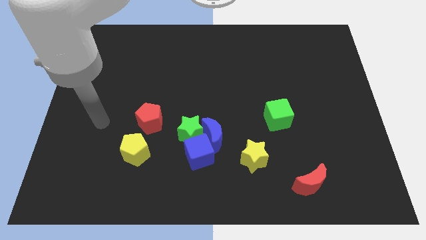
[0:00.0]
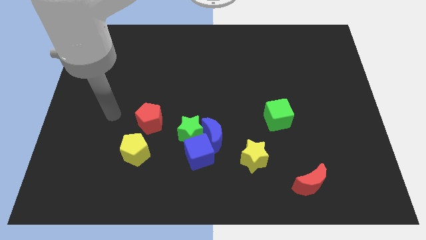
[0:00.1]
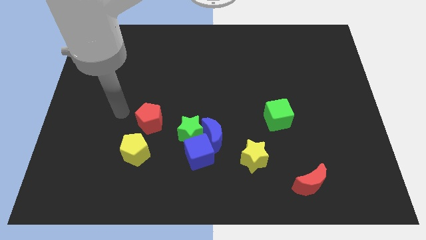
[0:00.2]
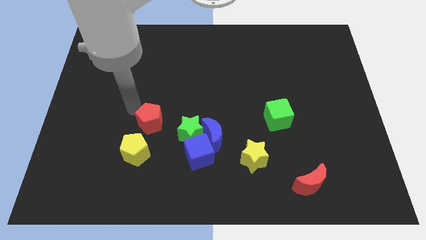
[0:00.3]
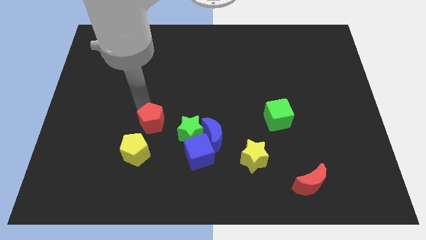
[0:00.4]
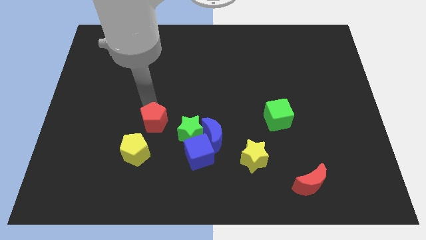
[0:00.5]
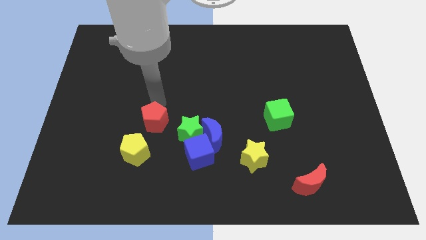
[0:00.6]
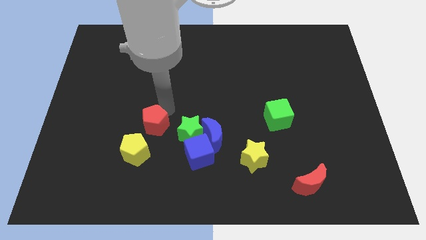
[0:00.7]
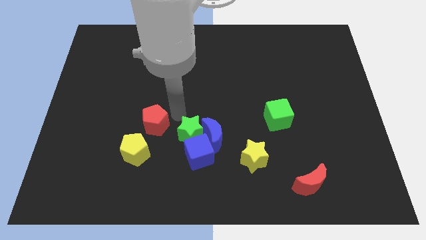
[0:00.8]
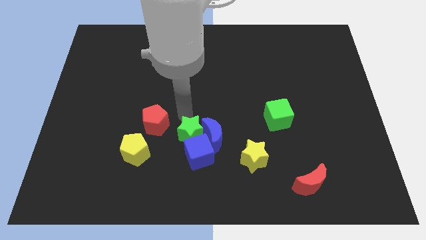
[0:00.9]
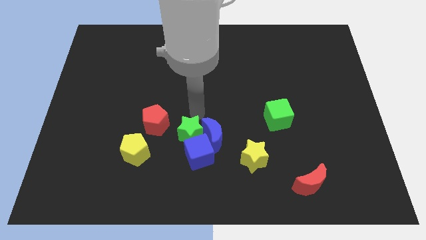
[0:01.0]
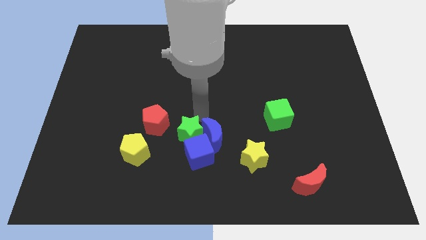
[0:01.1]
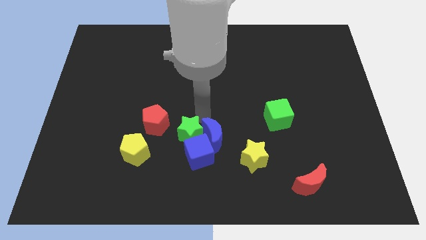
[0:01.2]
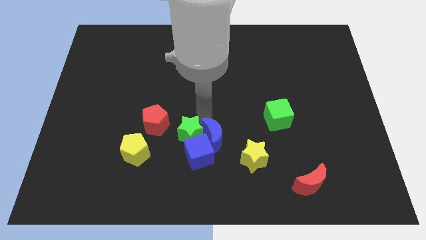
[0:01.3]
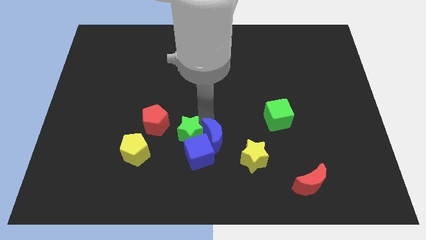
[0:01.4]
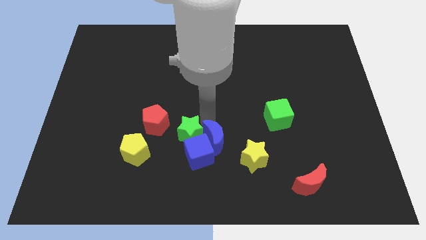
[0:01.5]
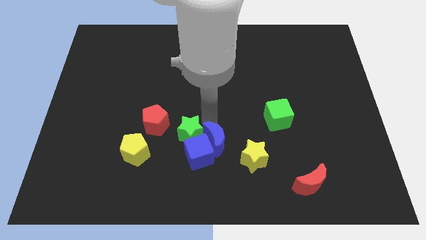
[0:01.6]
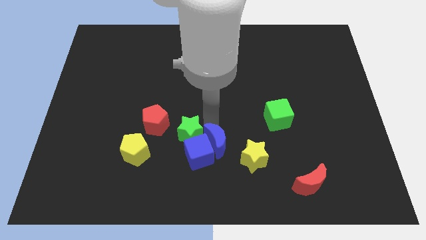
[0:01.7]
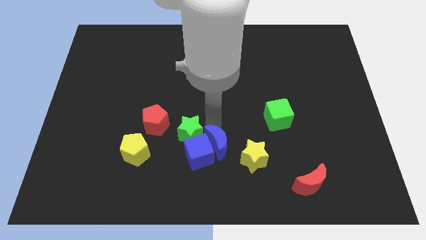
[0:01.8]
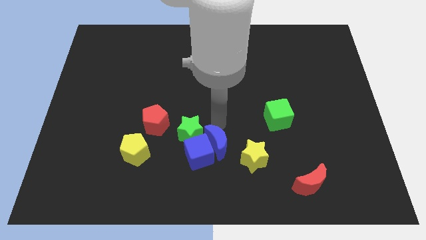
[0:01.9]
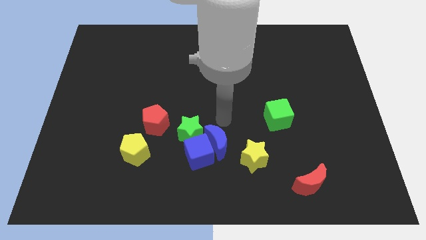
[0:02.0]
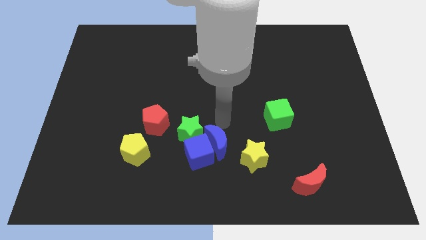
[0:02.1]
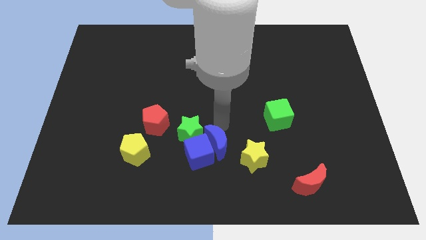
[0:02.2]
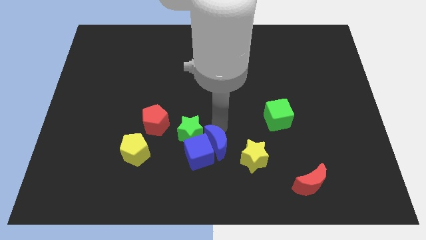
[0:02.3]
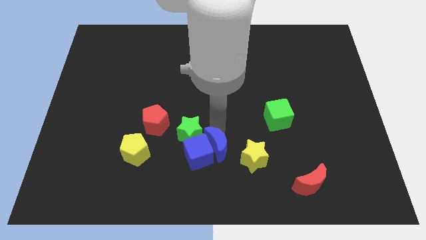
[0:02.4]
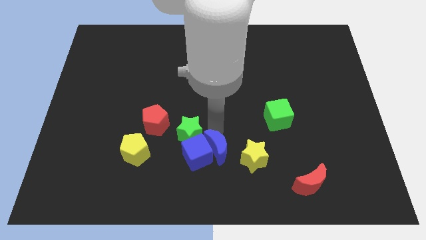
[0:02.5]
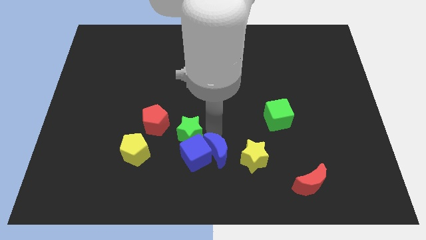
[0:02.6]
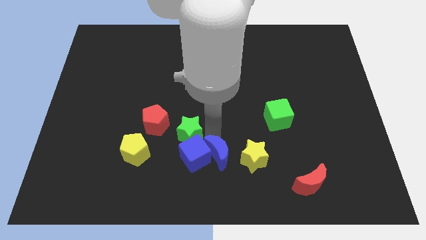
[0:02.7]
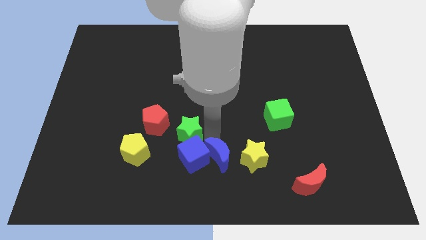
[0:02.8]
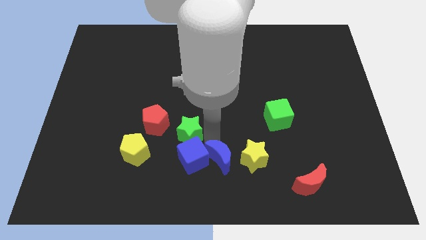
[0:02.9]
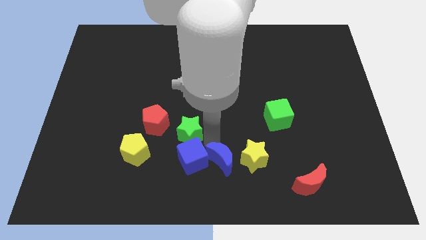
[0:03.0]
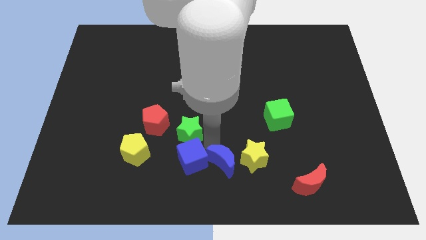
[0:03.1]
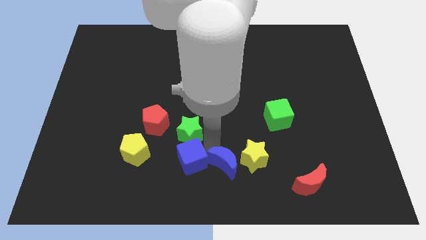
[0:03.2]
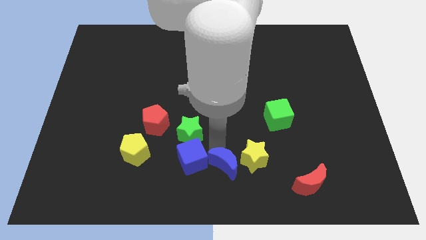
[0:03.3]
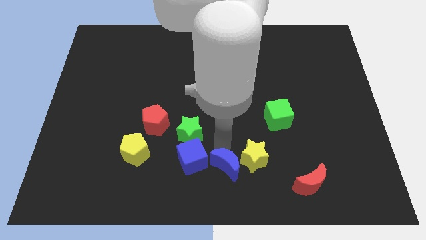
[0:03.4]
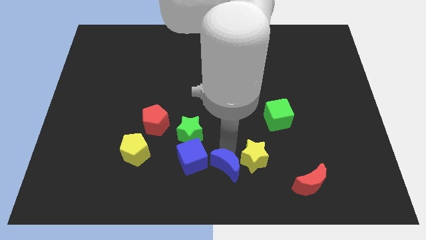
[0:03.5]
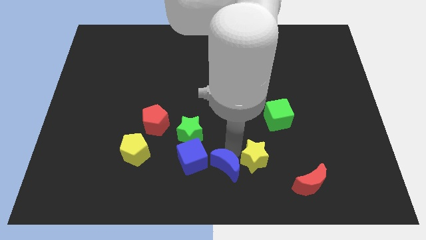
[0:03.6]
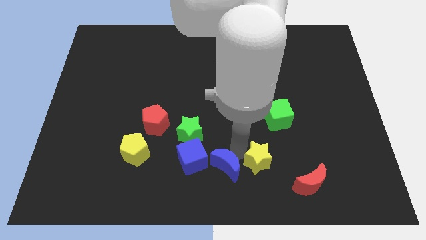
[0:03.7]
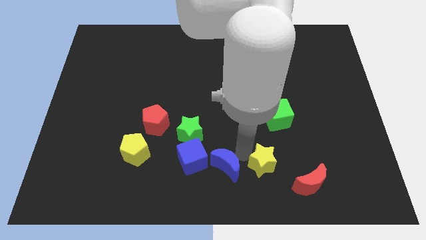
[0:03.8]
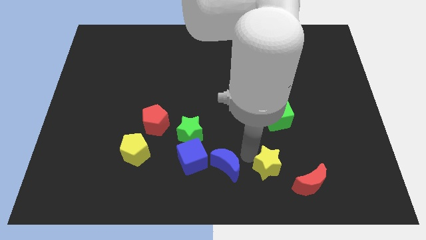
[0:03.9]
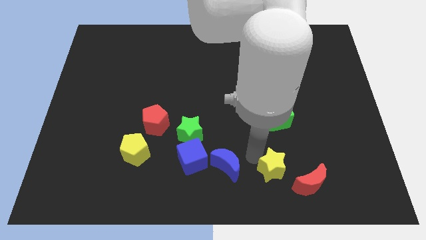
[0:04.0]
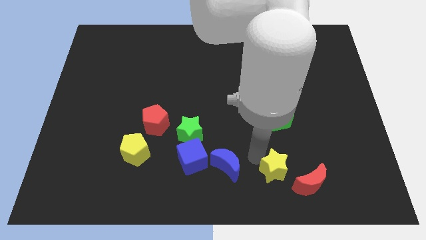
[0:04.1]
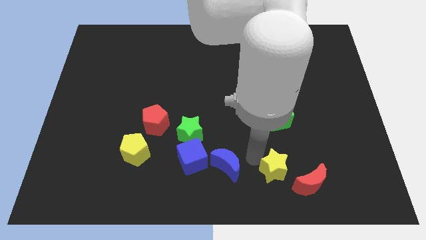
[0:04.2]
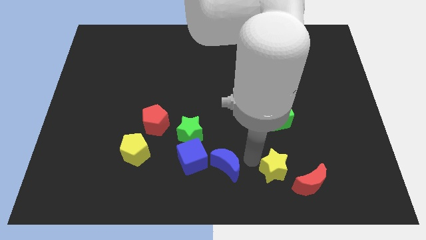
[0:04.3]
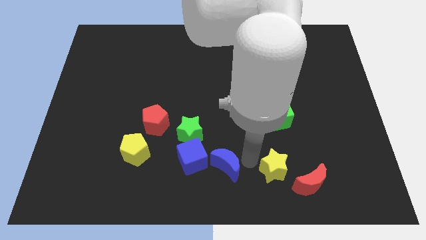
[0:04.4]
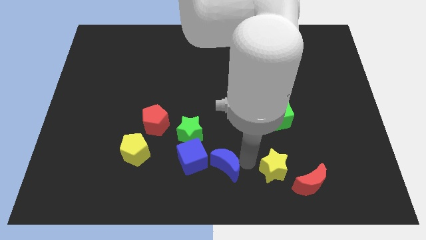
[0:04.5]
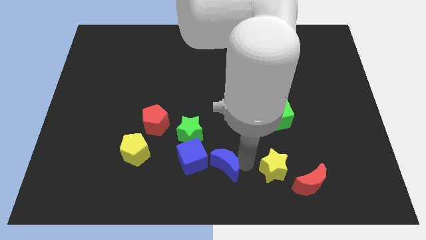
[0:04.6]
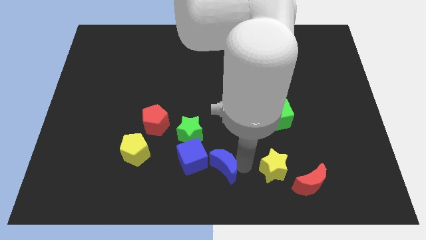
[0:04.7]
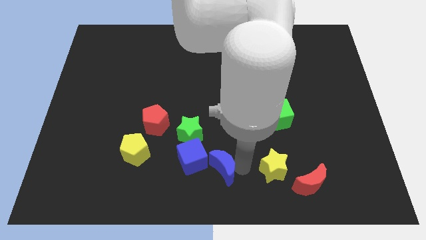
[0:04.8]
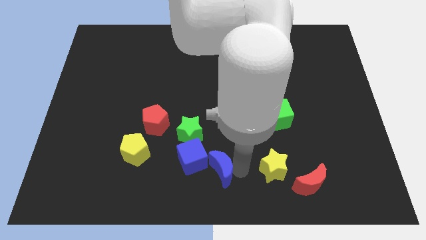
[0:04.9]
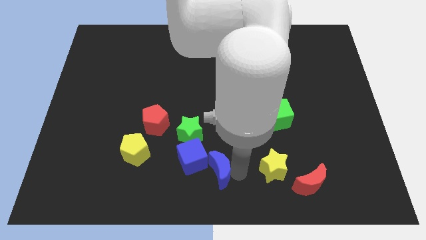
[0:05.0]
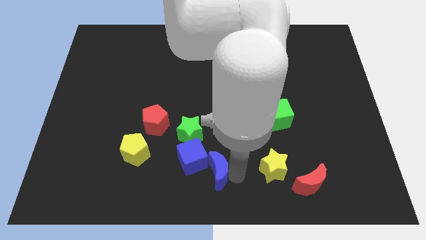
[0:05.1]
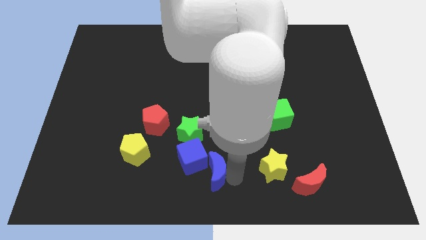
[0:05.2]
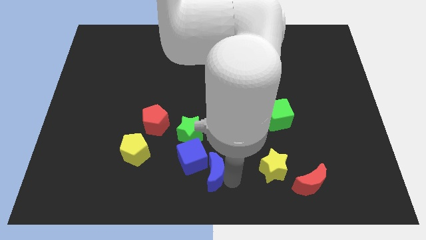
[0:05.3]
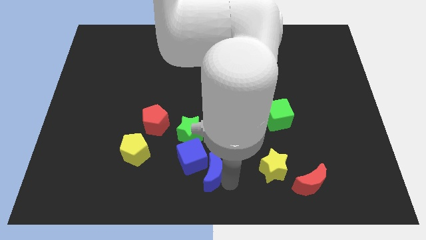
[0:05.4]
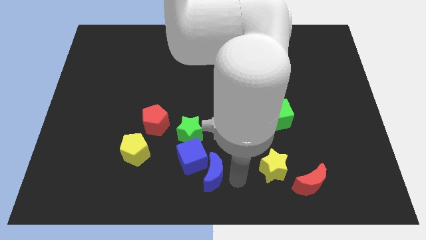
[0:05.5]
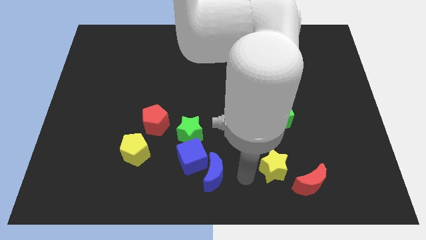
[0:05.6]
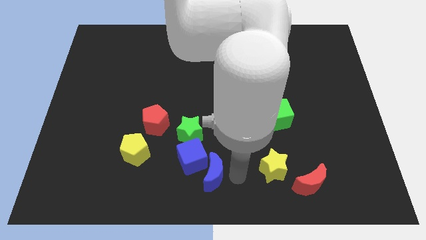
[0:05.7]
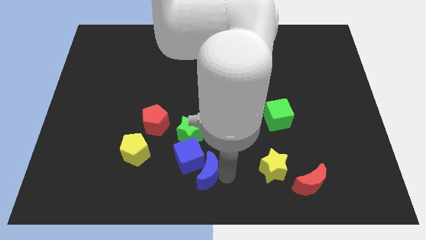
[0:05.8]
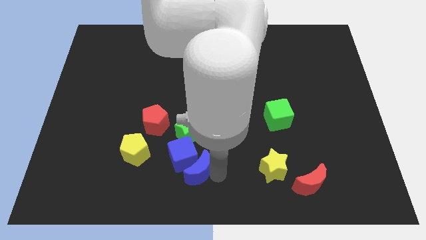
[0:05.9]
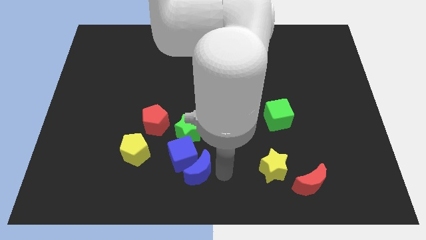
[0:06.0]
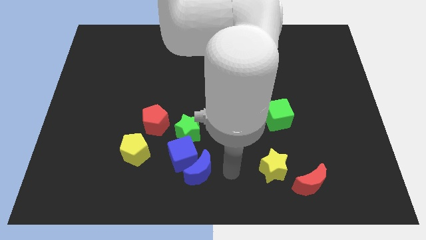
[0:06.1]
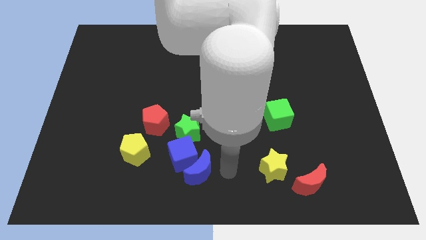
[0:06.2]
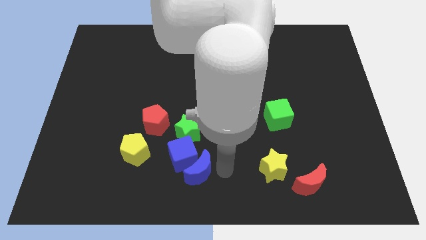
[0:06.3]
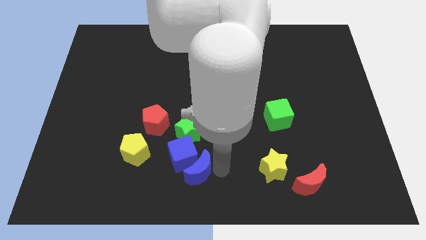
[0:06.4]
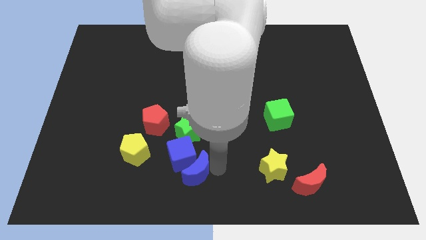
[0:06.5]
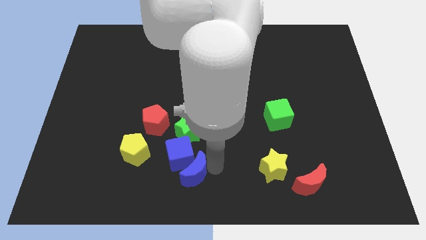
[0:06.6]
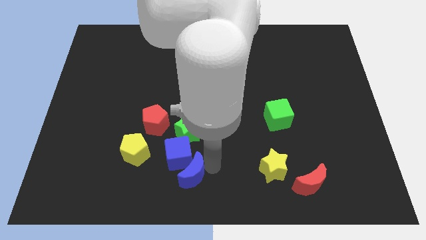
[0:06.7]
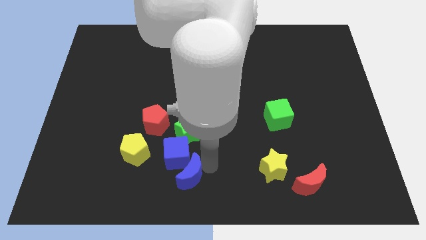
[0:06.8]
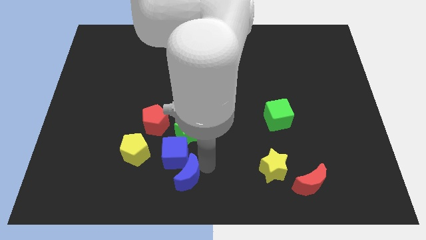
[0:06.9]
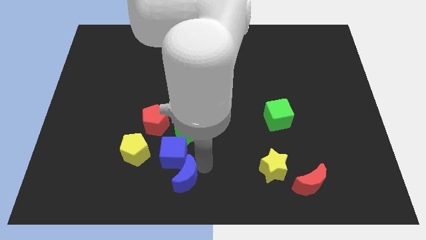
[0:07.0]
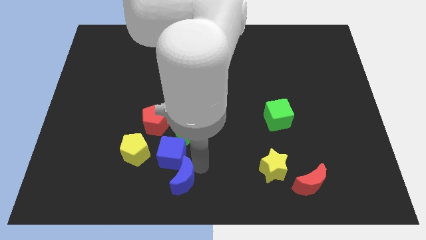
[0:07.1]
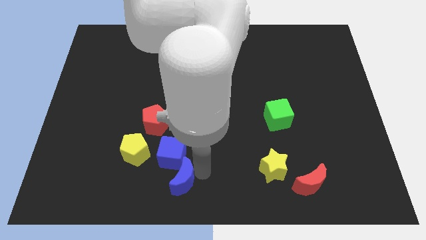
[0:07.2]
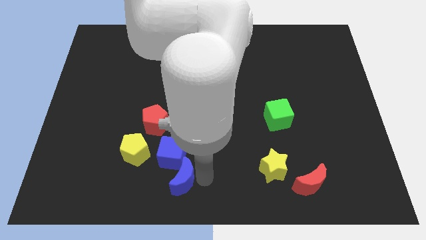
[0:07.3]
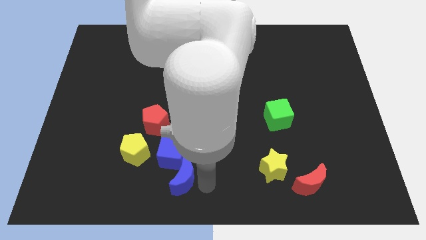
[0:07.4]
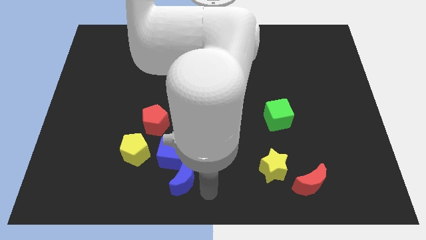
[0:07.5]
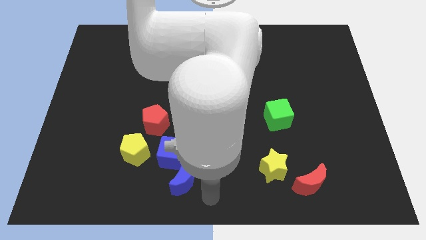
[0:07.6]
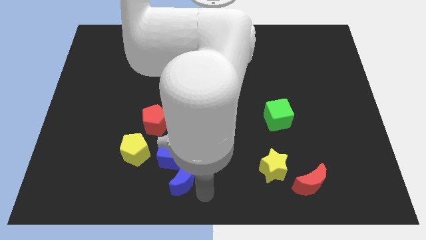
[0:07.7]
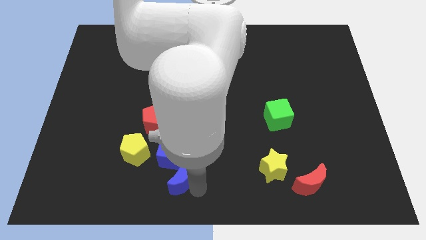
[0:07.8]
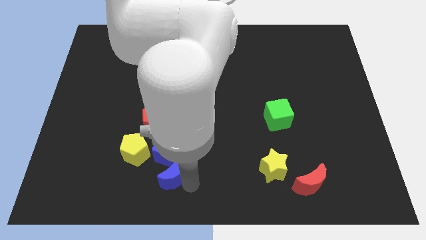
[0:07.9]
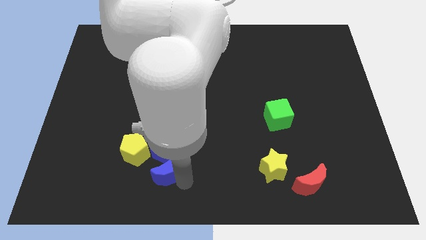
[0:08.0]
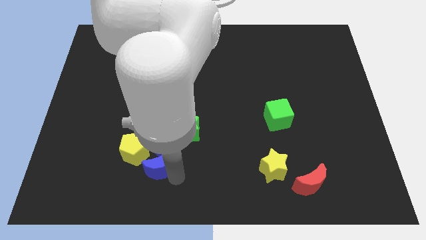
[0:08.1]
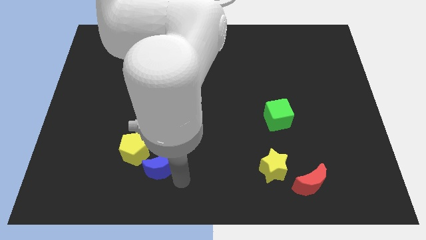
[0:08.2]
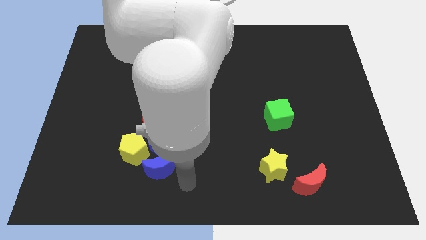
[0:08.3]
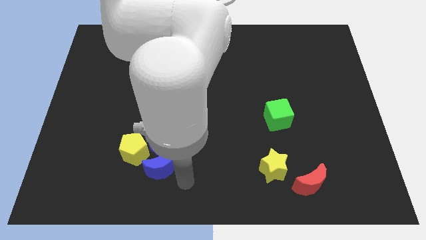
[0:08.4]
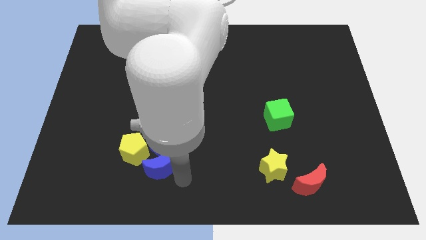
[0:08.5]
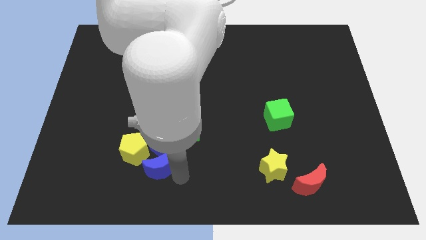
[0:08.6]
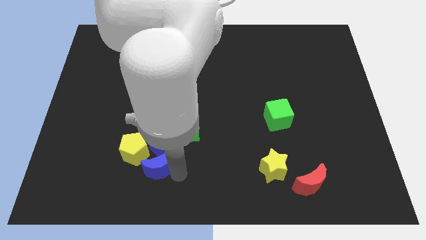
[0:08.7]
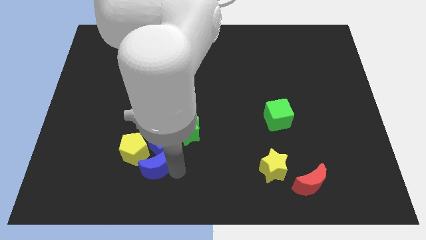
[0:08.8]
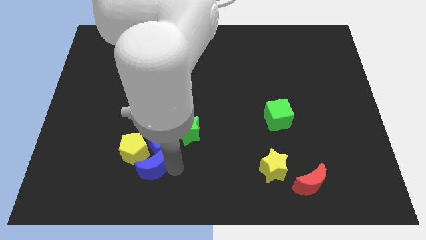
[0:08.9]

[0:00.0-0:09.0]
put the blue moon close to the yellow pentagon
